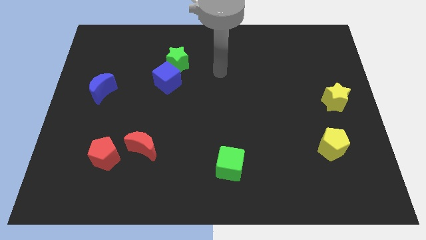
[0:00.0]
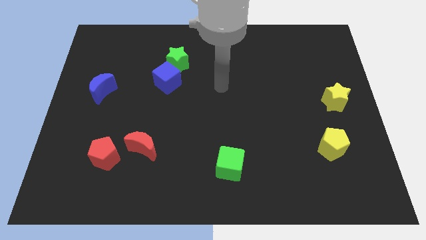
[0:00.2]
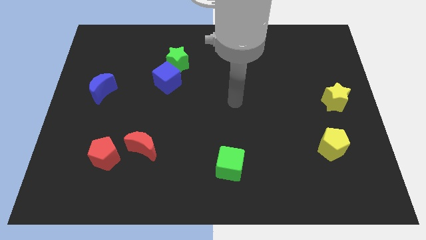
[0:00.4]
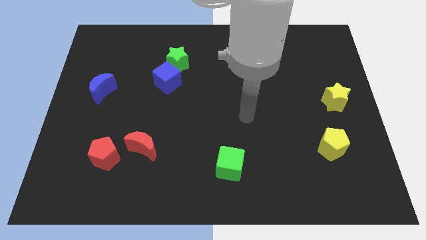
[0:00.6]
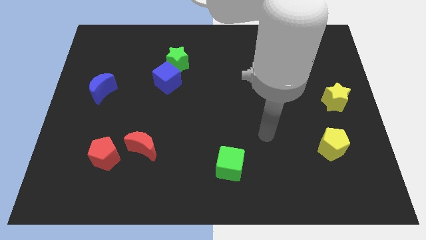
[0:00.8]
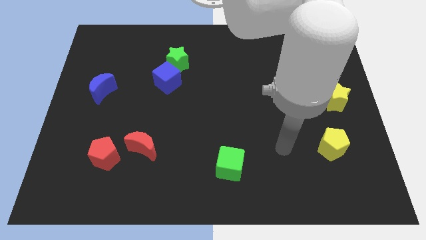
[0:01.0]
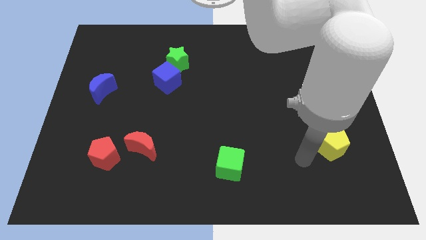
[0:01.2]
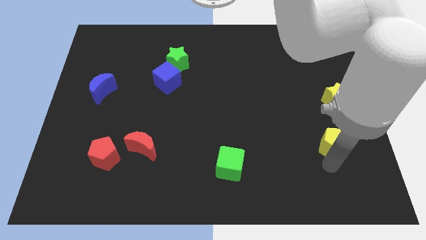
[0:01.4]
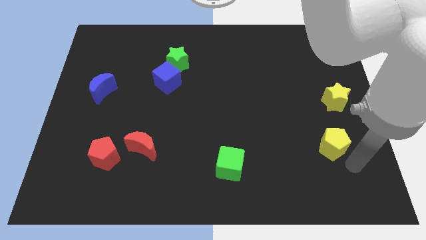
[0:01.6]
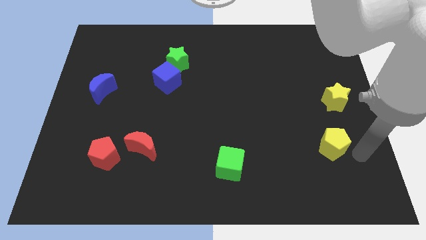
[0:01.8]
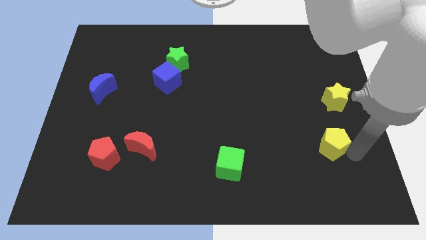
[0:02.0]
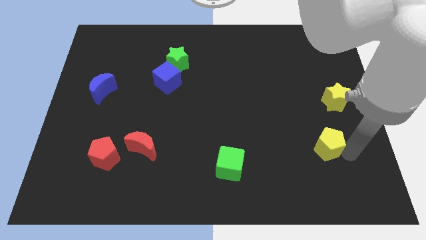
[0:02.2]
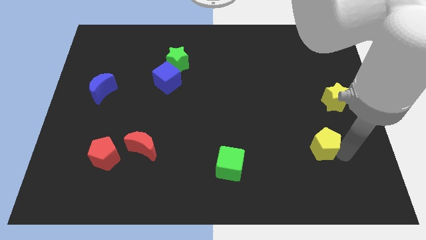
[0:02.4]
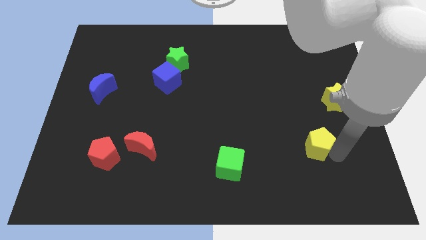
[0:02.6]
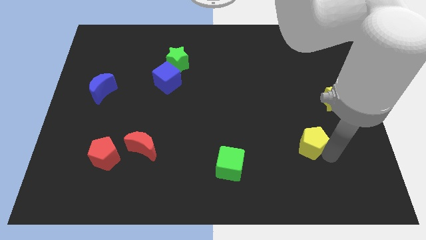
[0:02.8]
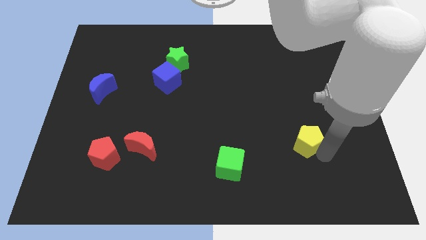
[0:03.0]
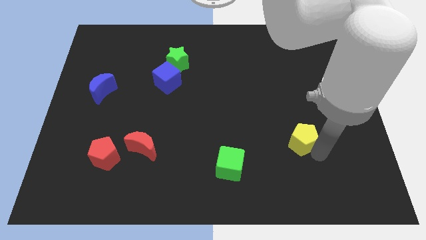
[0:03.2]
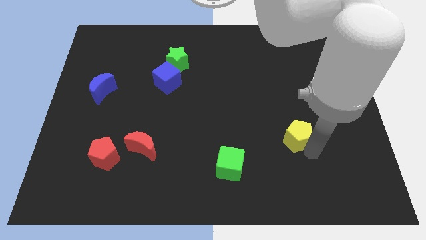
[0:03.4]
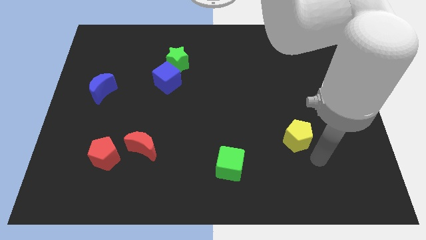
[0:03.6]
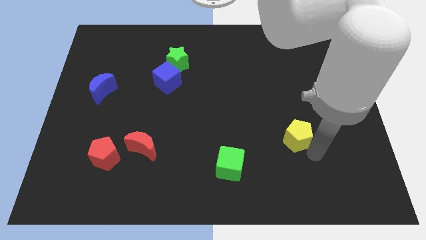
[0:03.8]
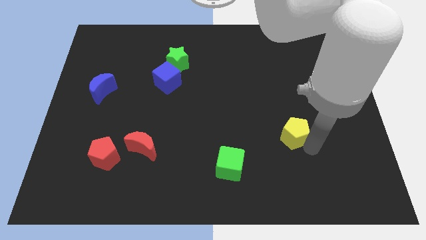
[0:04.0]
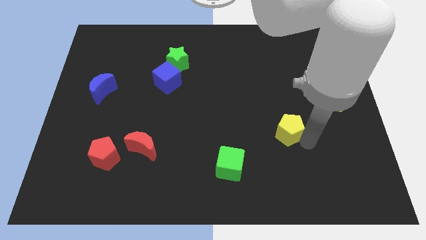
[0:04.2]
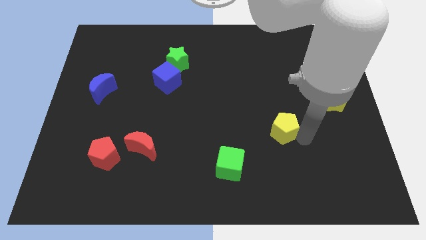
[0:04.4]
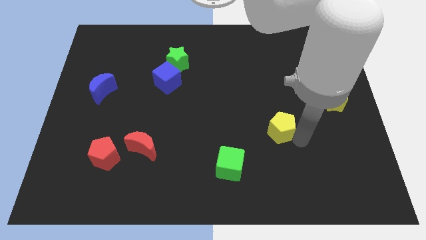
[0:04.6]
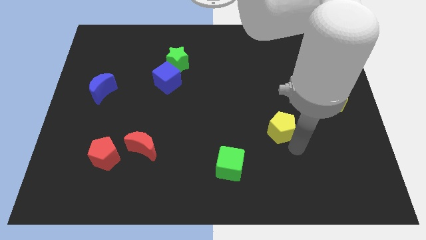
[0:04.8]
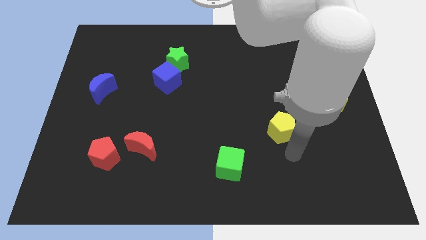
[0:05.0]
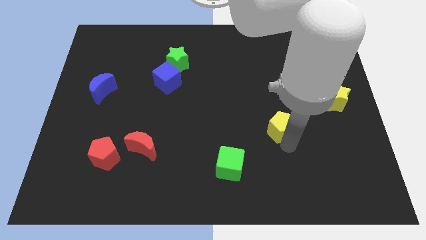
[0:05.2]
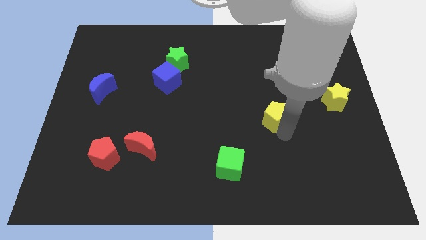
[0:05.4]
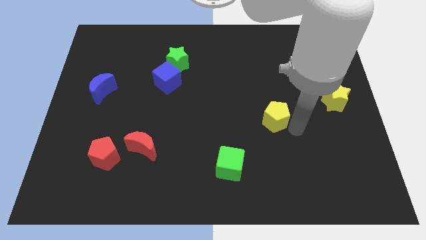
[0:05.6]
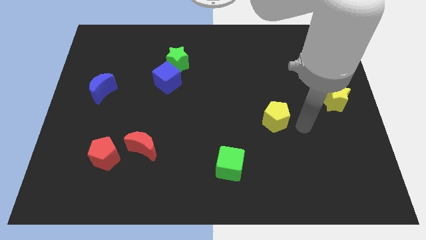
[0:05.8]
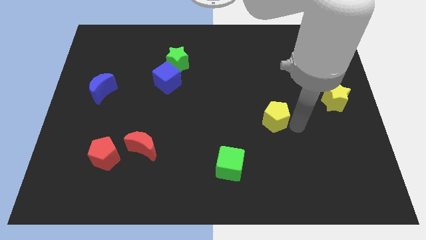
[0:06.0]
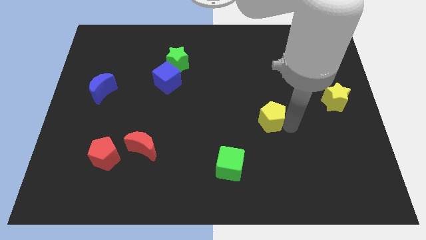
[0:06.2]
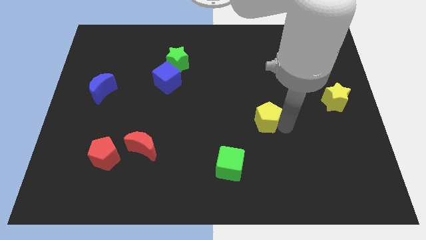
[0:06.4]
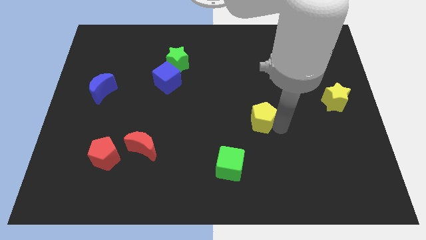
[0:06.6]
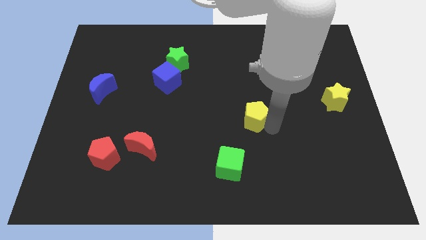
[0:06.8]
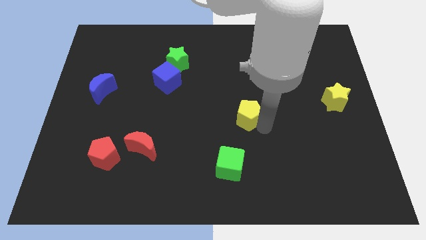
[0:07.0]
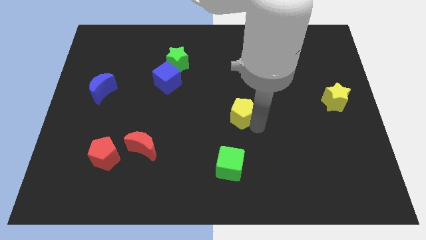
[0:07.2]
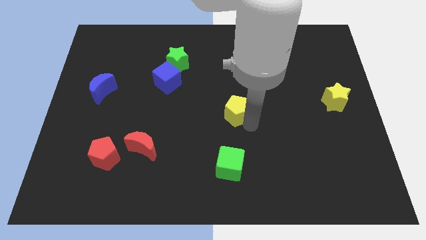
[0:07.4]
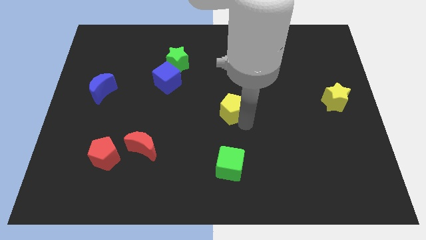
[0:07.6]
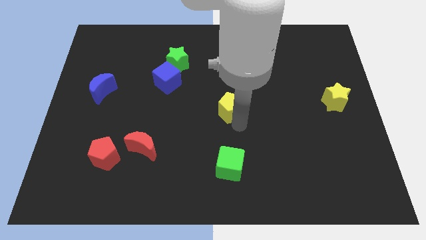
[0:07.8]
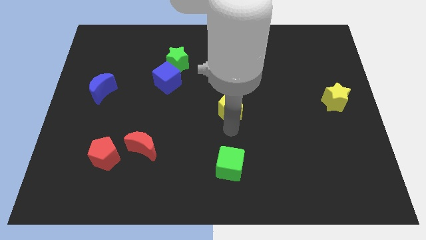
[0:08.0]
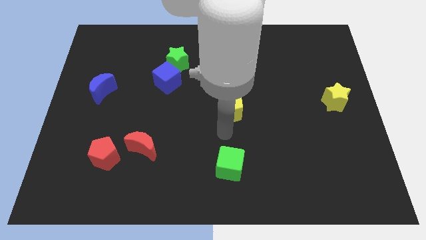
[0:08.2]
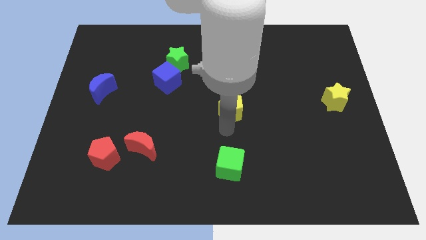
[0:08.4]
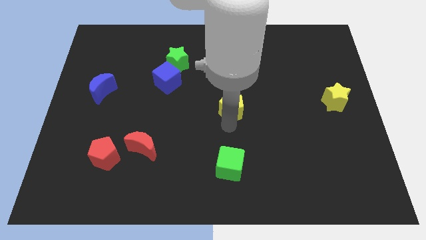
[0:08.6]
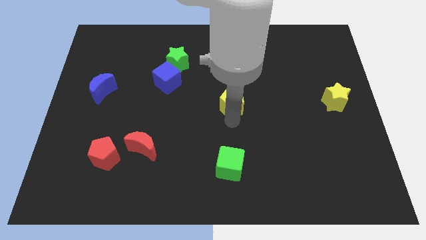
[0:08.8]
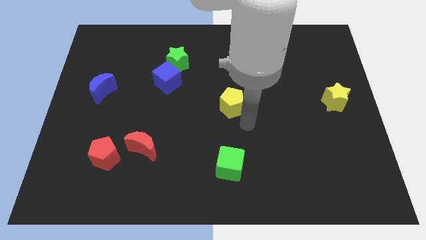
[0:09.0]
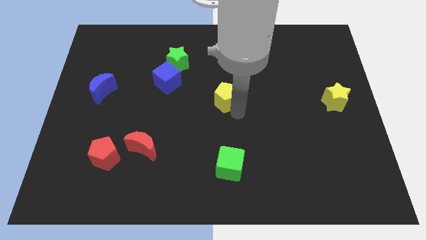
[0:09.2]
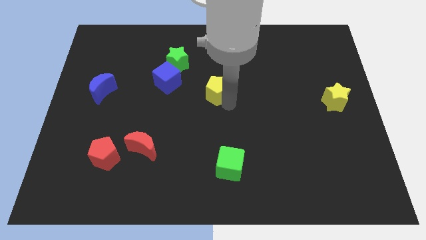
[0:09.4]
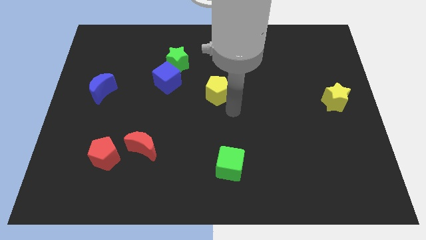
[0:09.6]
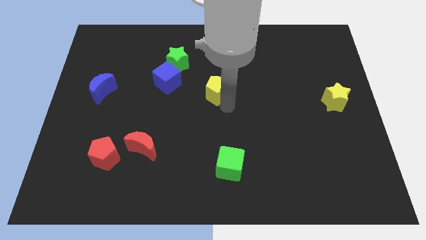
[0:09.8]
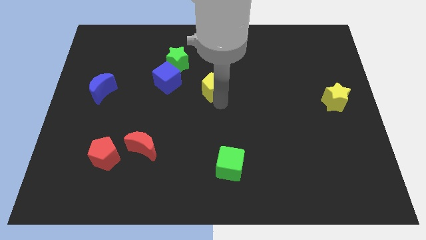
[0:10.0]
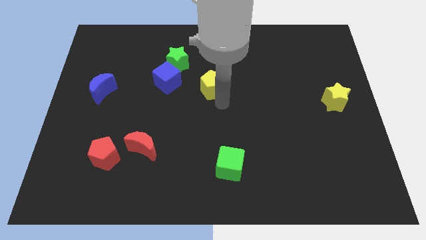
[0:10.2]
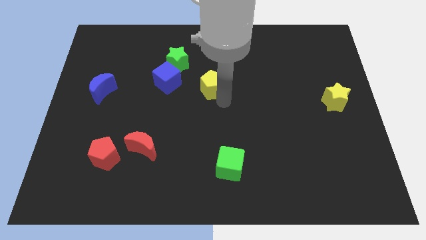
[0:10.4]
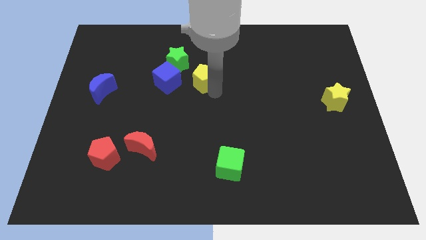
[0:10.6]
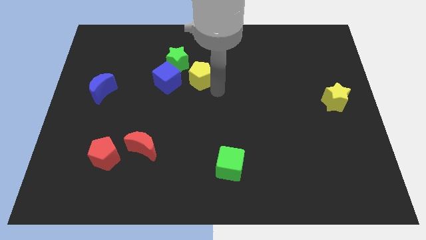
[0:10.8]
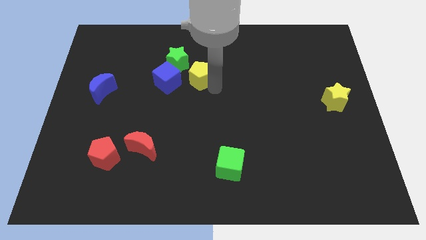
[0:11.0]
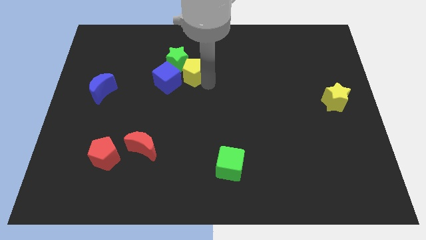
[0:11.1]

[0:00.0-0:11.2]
put the yellow pentagon close to the green star

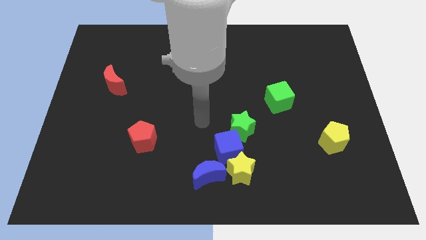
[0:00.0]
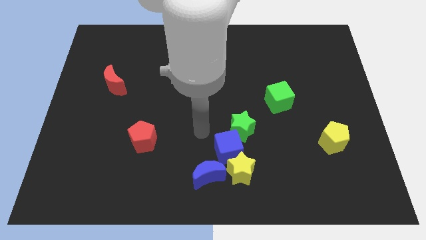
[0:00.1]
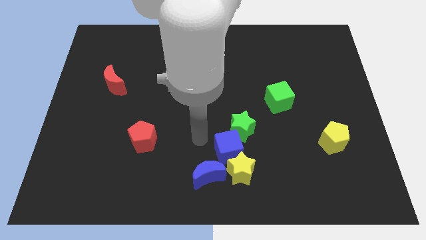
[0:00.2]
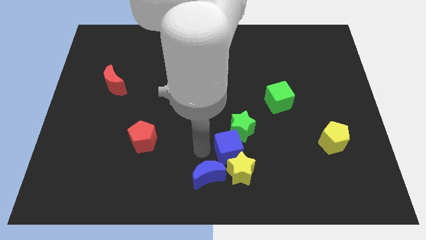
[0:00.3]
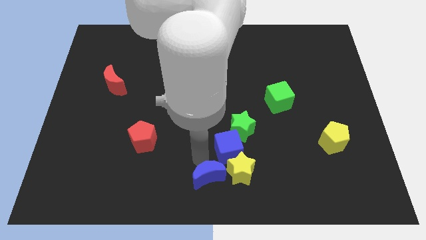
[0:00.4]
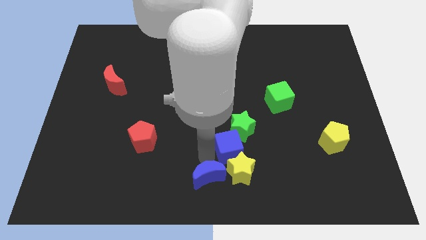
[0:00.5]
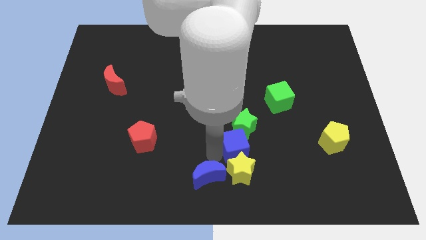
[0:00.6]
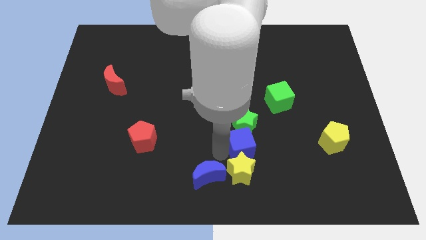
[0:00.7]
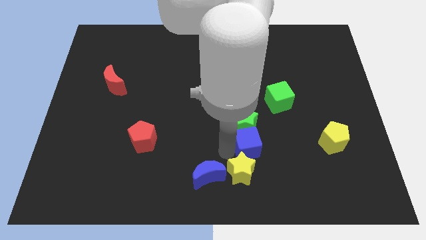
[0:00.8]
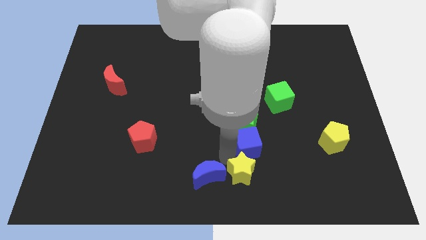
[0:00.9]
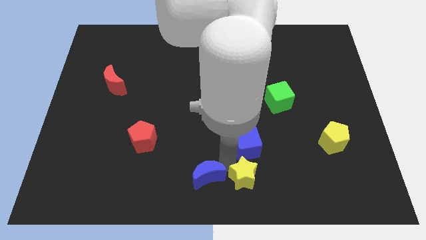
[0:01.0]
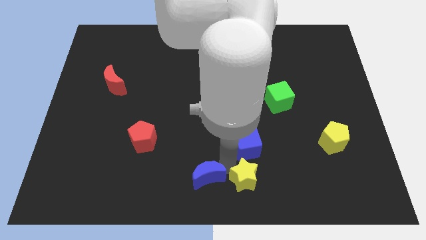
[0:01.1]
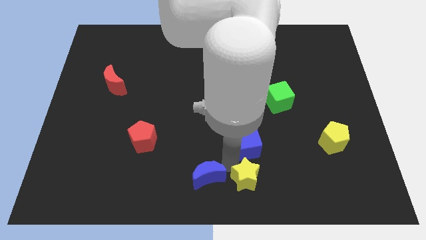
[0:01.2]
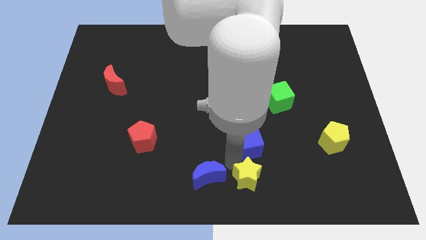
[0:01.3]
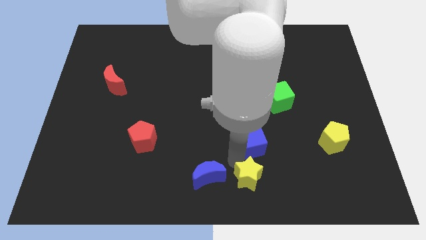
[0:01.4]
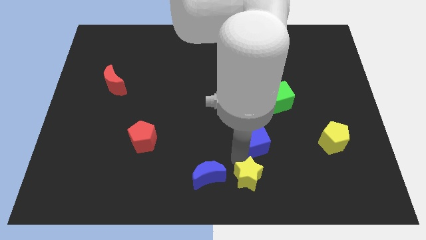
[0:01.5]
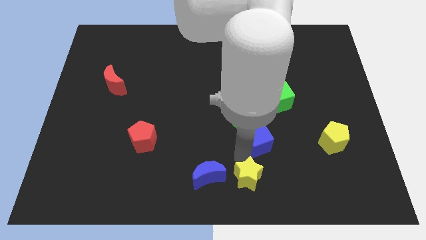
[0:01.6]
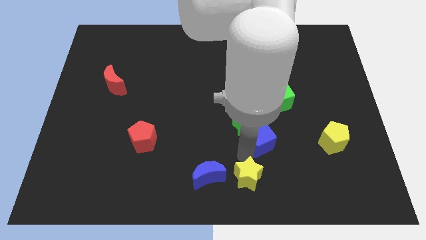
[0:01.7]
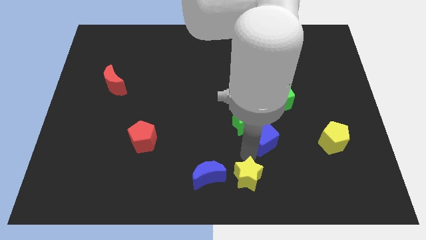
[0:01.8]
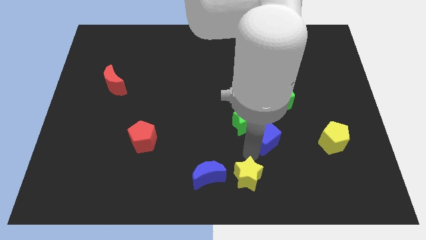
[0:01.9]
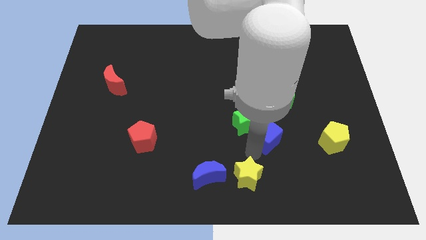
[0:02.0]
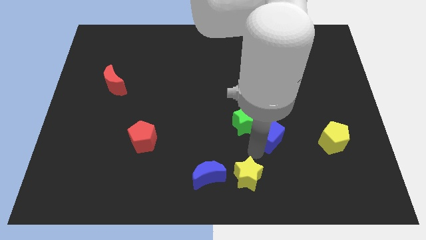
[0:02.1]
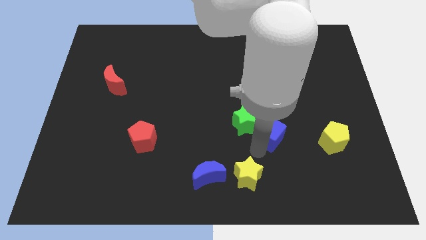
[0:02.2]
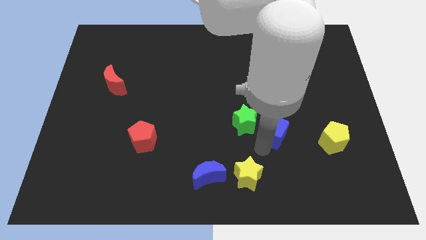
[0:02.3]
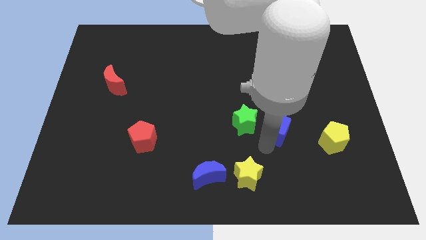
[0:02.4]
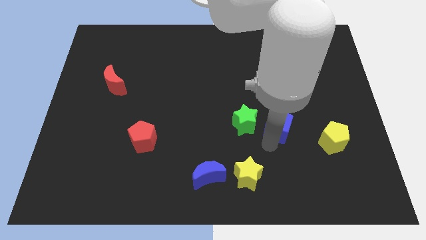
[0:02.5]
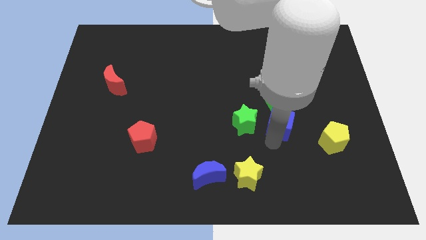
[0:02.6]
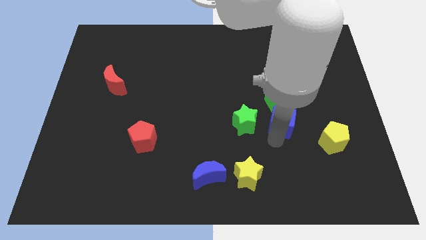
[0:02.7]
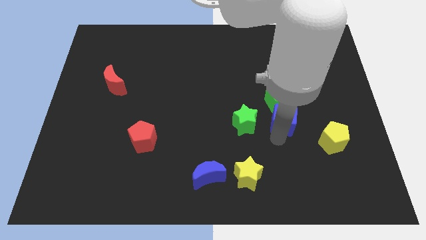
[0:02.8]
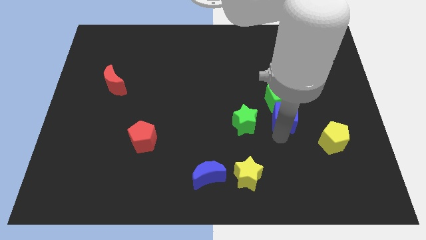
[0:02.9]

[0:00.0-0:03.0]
push the blue cube close to the green cube
